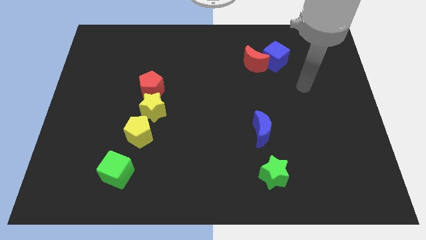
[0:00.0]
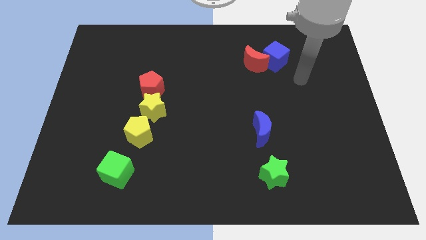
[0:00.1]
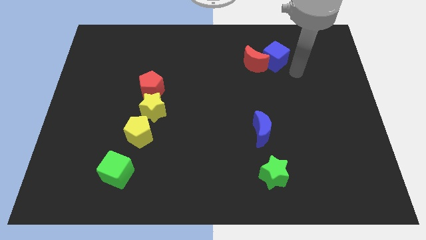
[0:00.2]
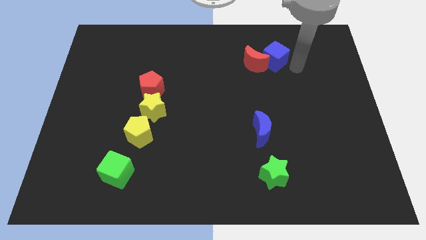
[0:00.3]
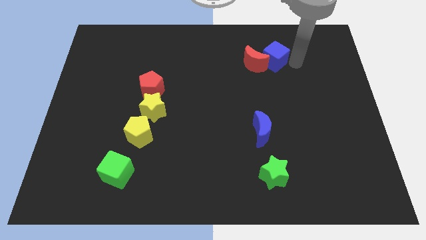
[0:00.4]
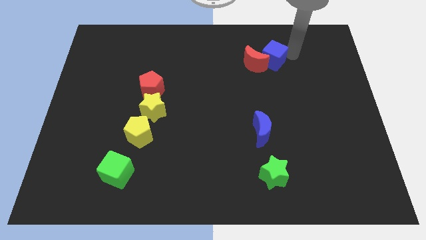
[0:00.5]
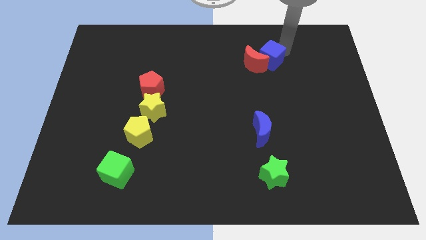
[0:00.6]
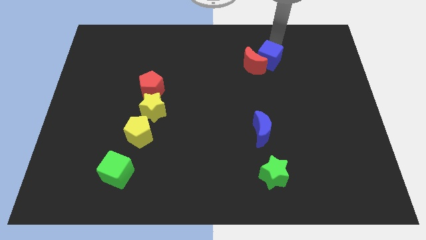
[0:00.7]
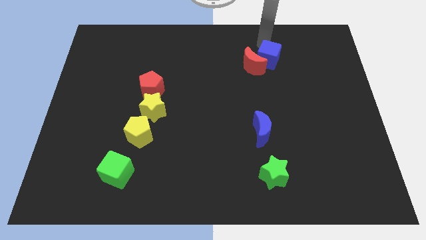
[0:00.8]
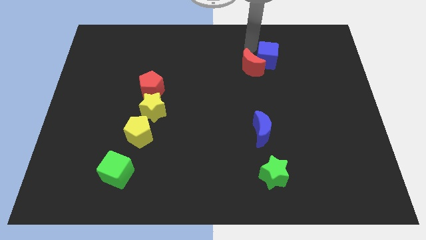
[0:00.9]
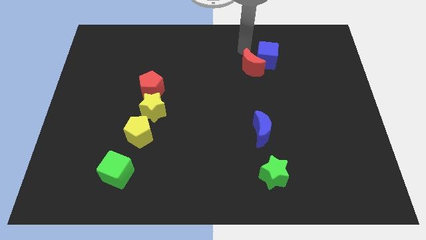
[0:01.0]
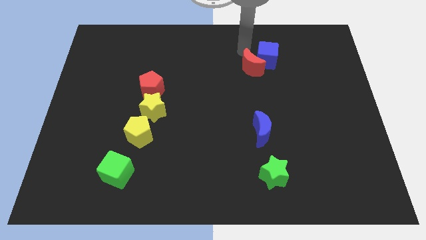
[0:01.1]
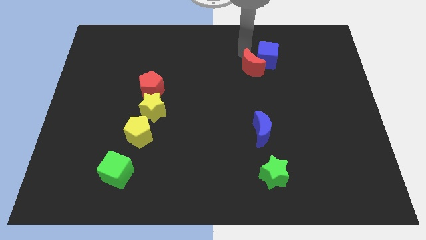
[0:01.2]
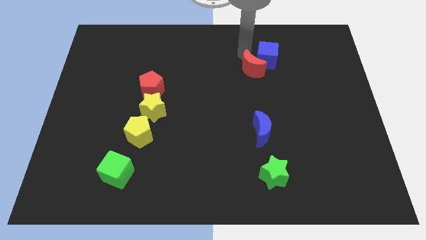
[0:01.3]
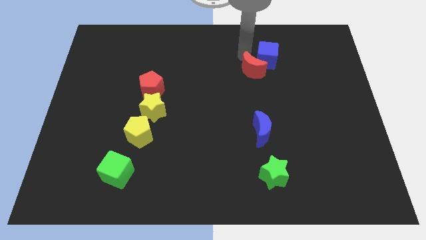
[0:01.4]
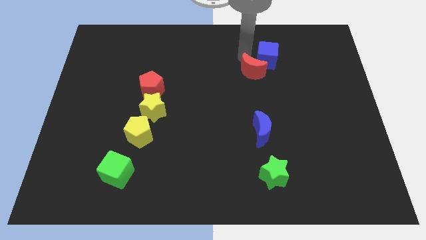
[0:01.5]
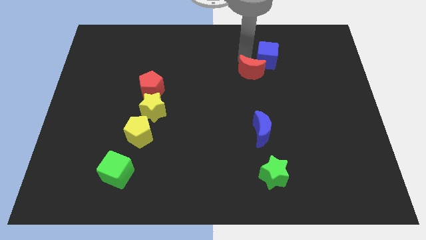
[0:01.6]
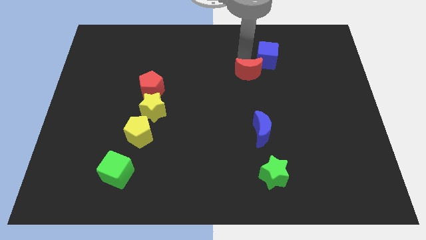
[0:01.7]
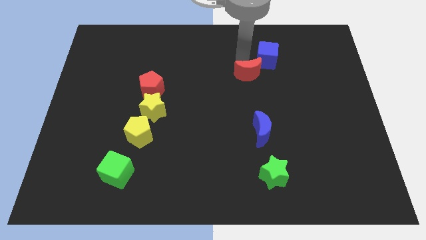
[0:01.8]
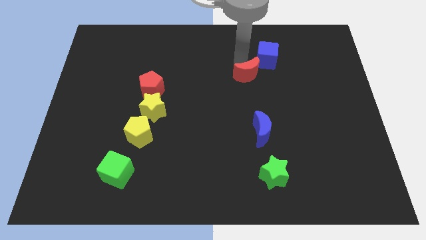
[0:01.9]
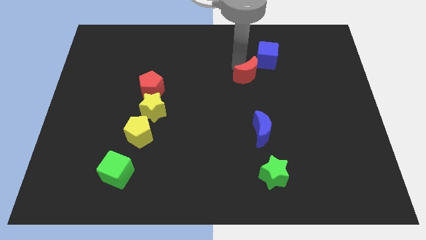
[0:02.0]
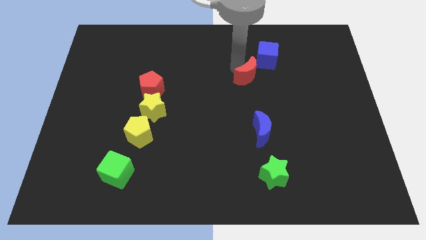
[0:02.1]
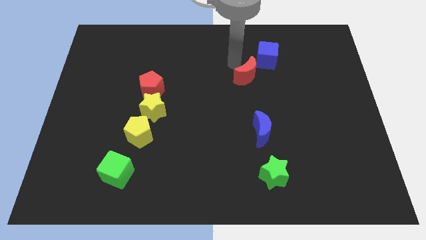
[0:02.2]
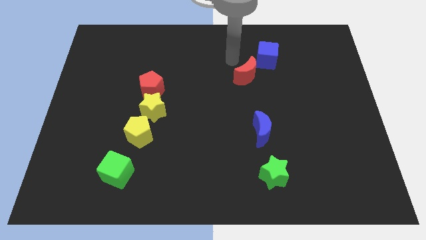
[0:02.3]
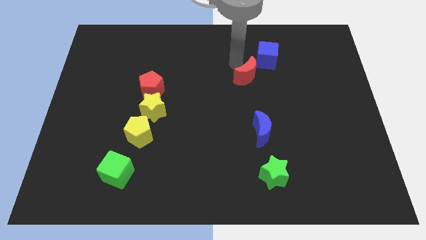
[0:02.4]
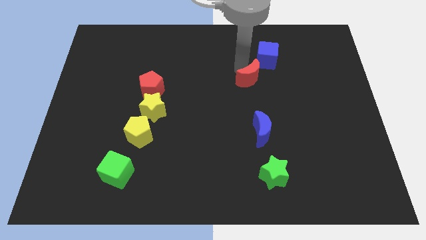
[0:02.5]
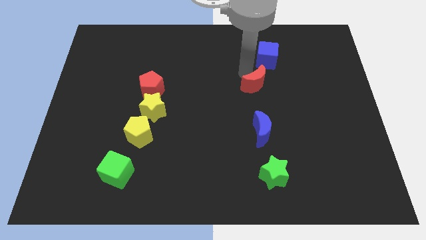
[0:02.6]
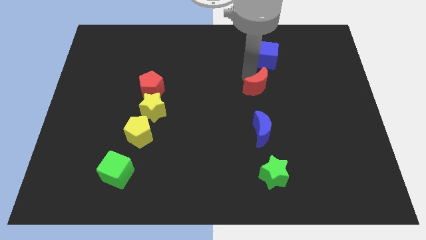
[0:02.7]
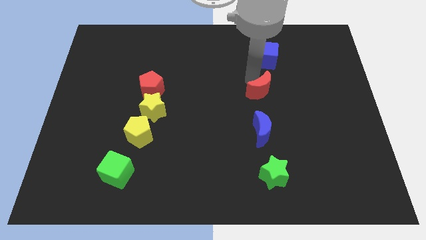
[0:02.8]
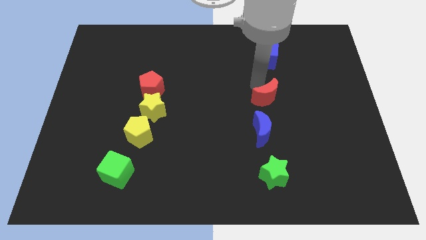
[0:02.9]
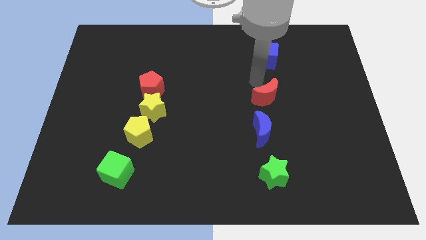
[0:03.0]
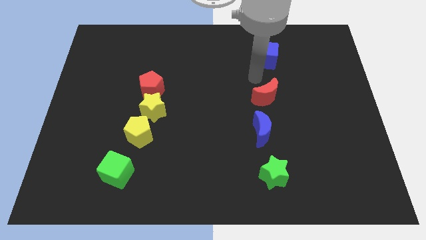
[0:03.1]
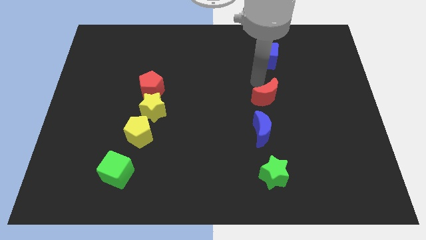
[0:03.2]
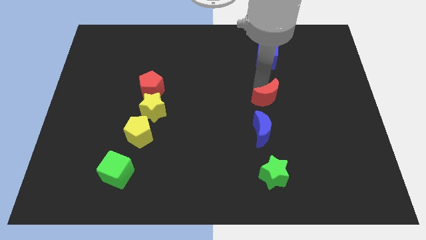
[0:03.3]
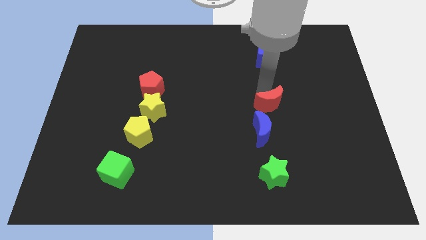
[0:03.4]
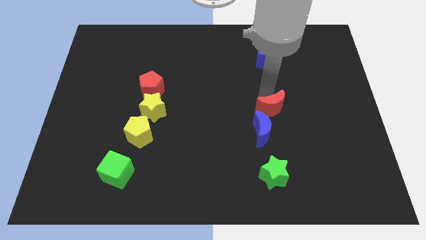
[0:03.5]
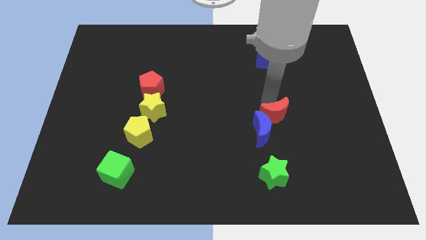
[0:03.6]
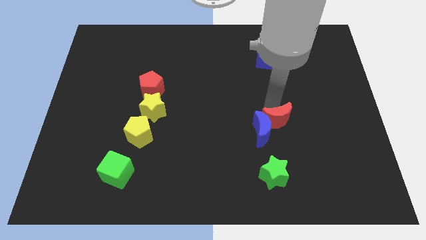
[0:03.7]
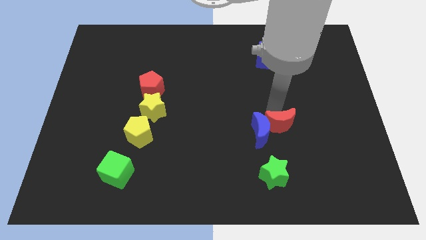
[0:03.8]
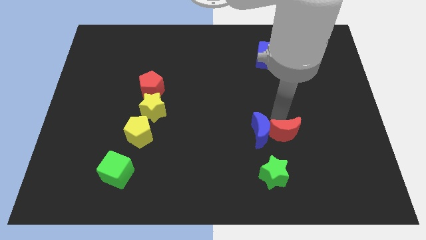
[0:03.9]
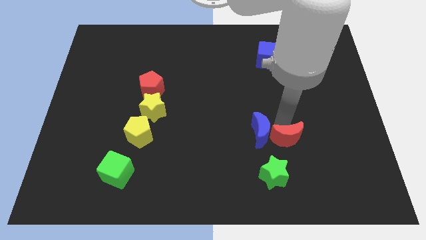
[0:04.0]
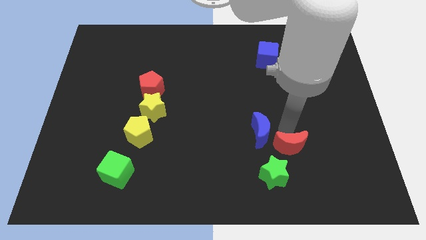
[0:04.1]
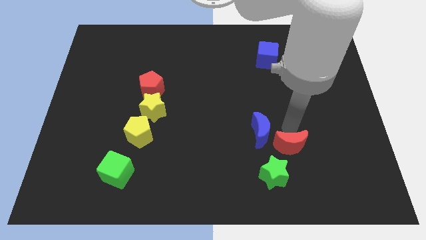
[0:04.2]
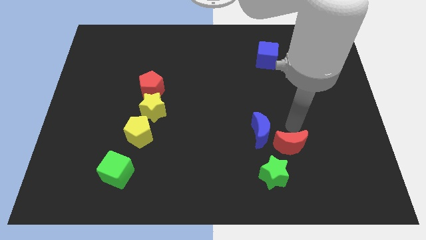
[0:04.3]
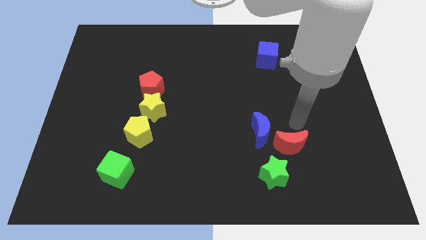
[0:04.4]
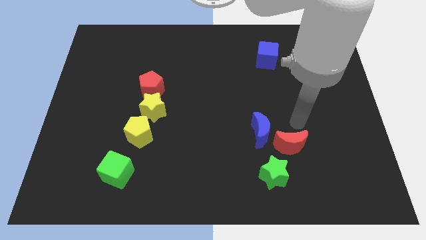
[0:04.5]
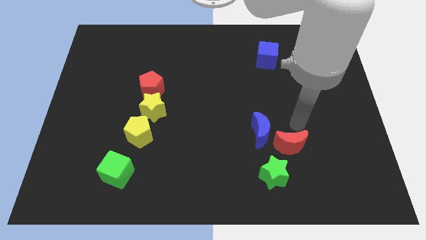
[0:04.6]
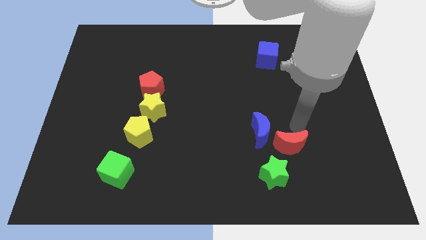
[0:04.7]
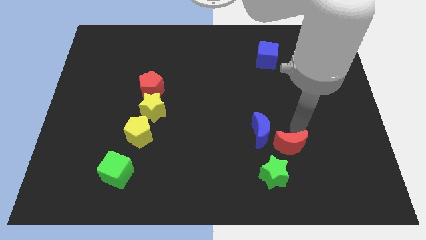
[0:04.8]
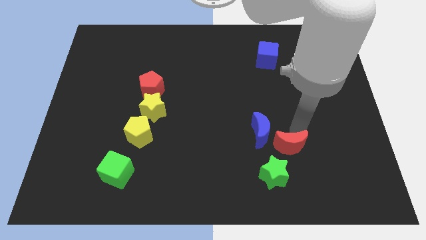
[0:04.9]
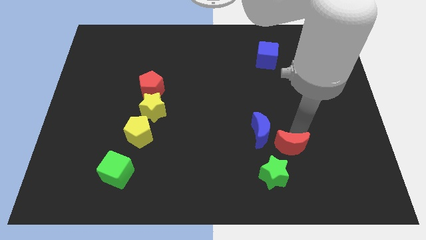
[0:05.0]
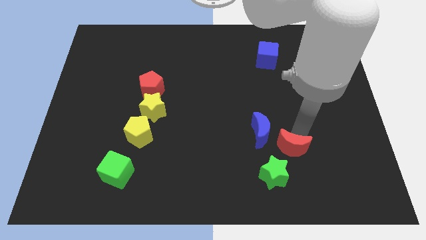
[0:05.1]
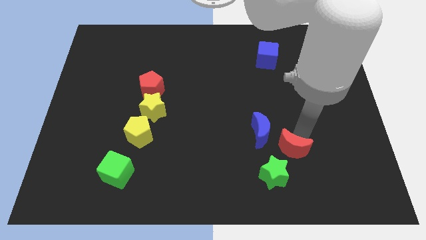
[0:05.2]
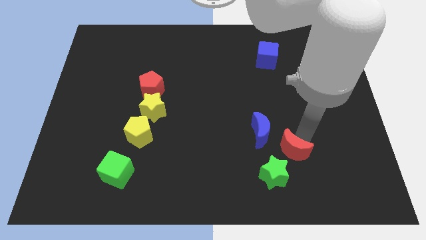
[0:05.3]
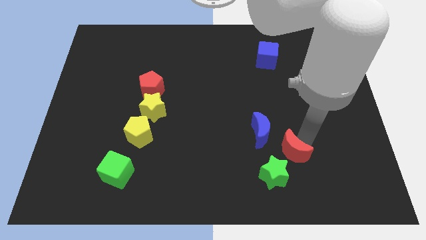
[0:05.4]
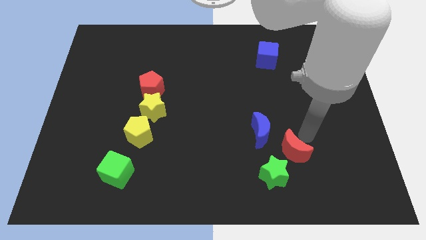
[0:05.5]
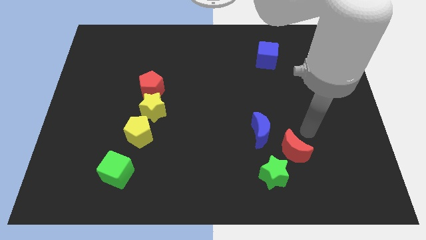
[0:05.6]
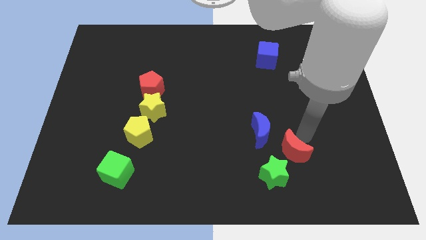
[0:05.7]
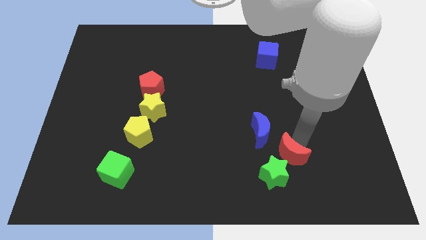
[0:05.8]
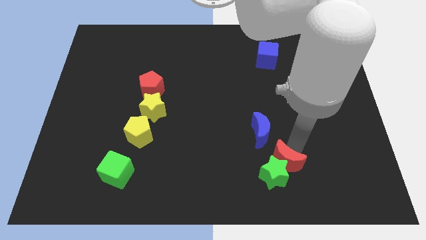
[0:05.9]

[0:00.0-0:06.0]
move the red moon next to the green star

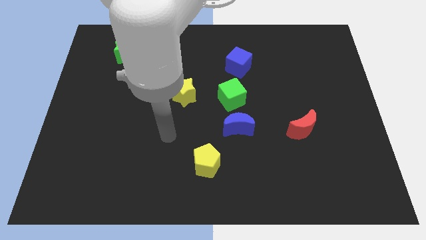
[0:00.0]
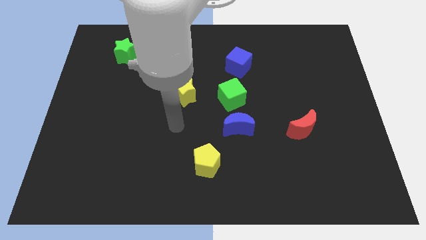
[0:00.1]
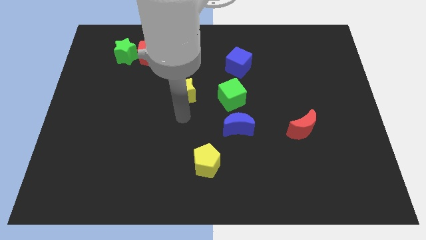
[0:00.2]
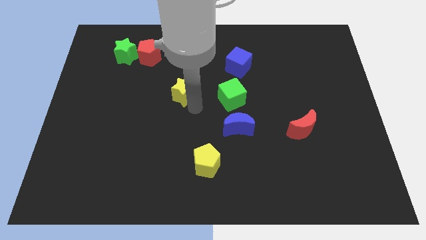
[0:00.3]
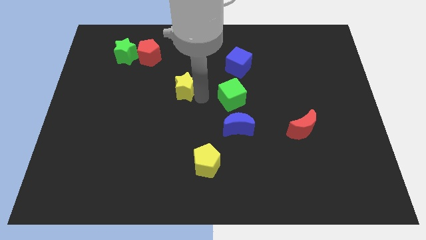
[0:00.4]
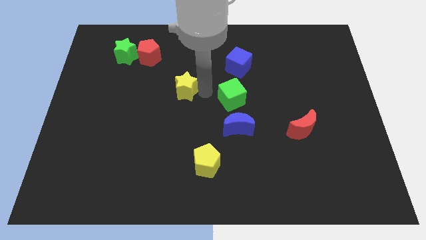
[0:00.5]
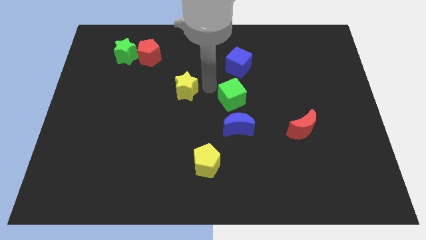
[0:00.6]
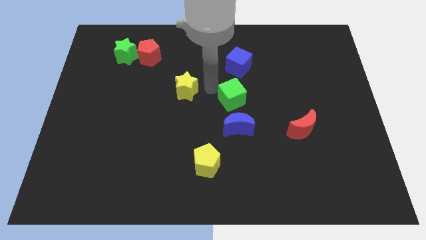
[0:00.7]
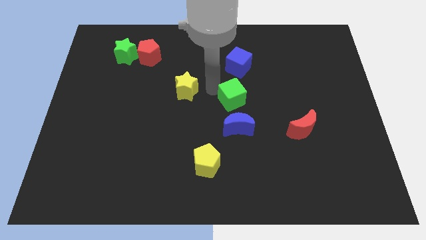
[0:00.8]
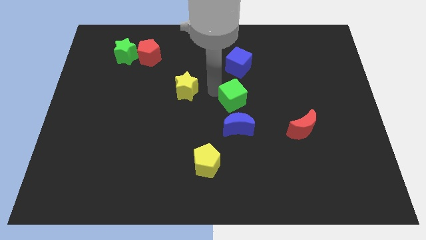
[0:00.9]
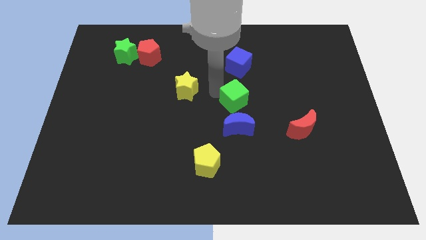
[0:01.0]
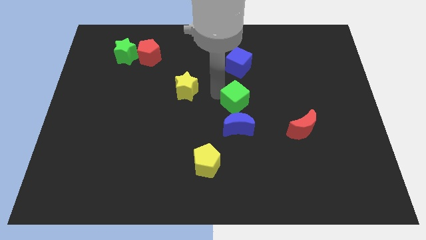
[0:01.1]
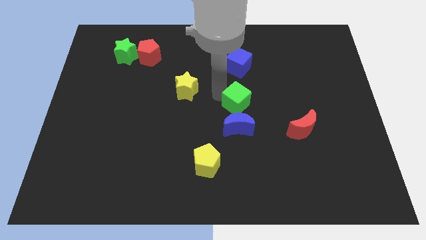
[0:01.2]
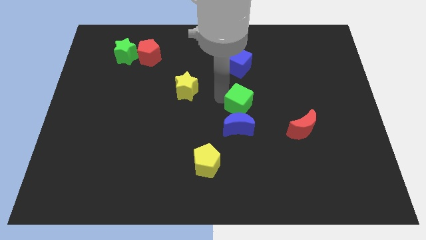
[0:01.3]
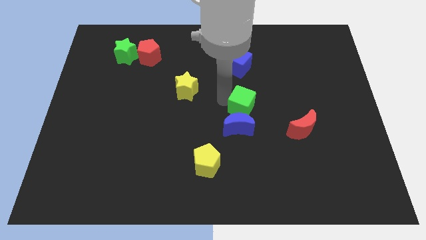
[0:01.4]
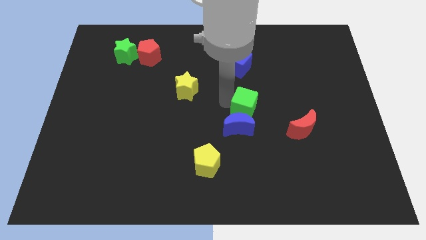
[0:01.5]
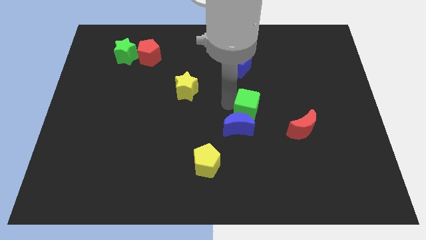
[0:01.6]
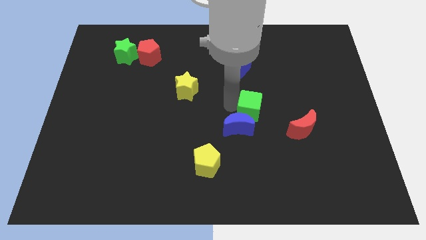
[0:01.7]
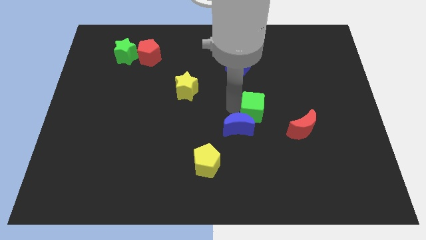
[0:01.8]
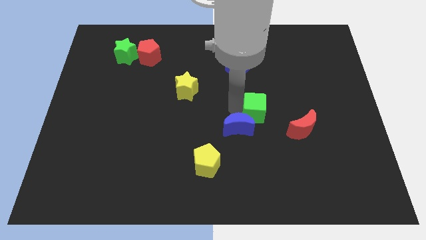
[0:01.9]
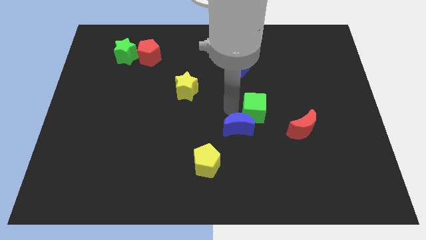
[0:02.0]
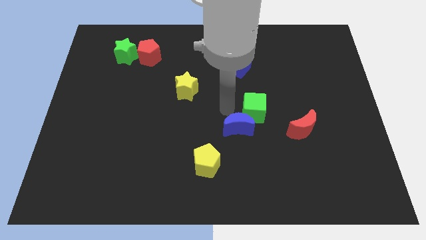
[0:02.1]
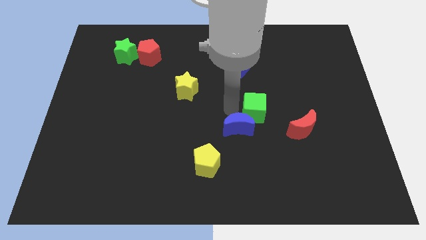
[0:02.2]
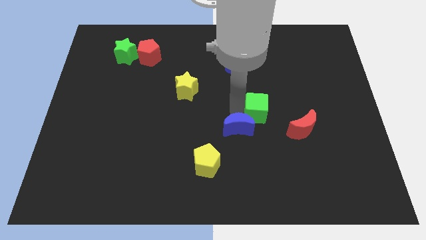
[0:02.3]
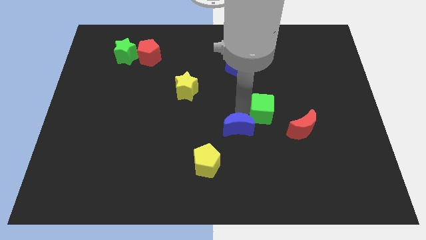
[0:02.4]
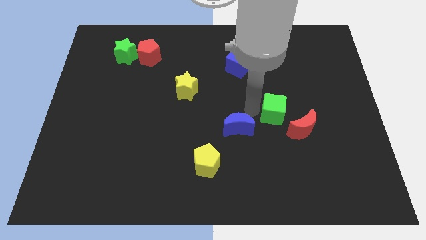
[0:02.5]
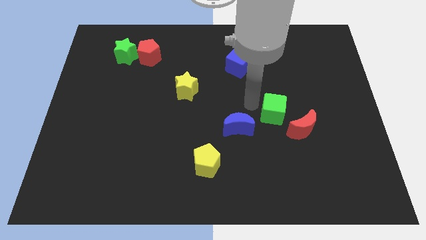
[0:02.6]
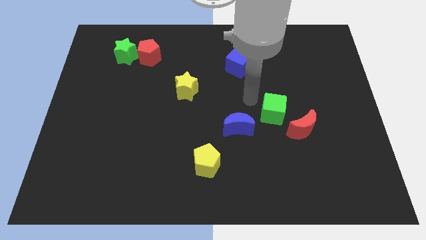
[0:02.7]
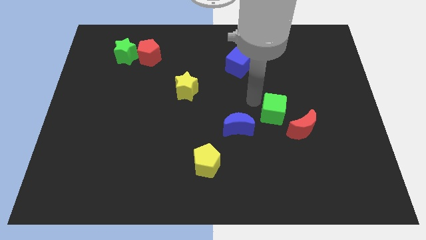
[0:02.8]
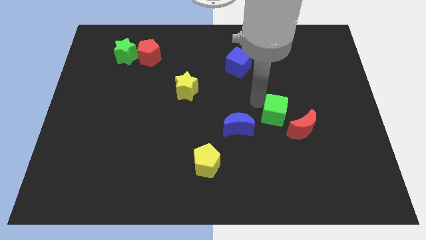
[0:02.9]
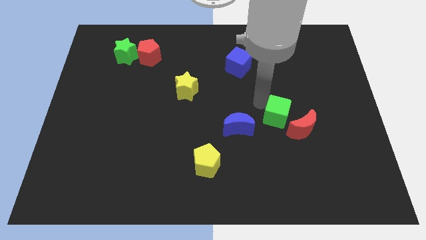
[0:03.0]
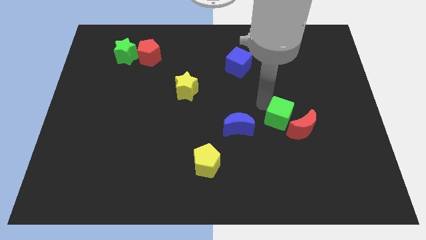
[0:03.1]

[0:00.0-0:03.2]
push the green cube towards the red moon
